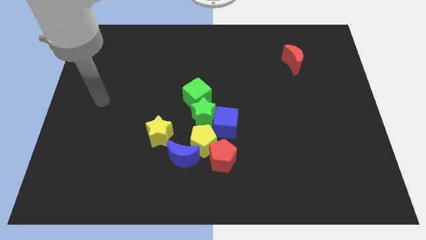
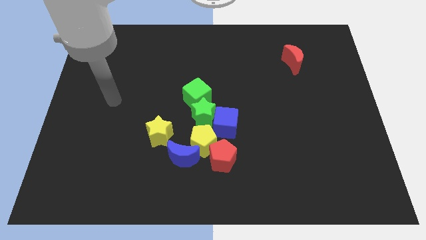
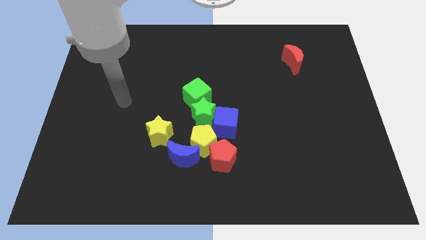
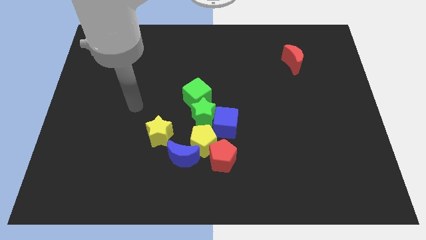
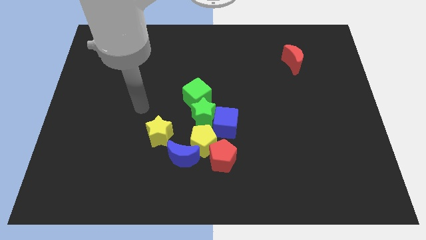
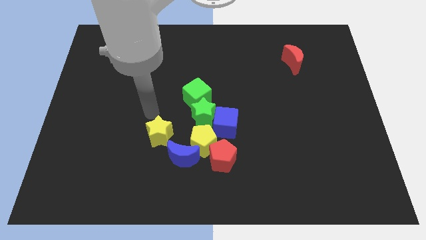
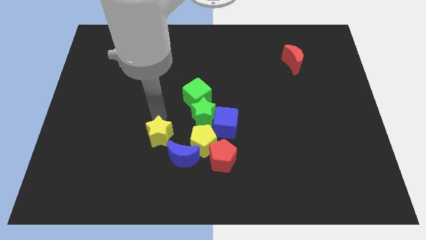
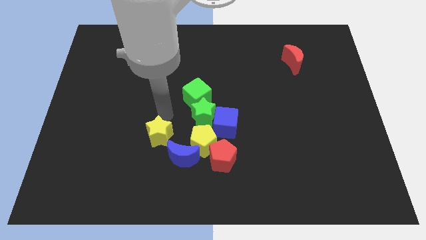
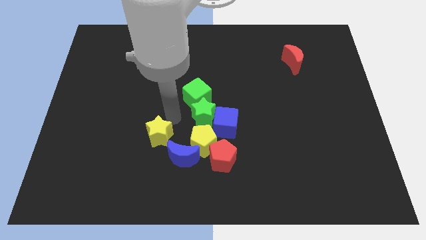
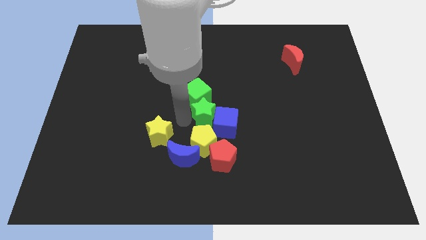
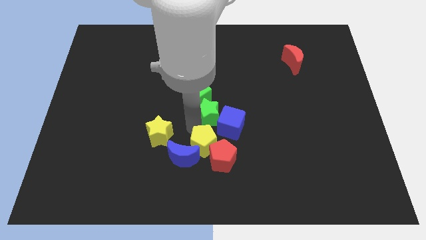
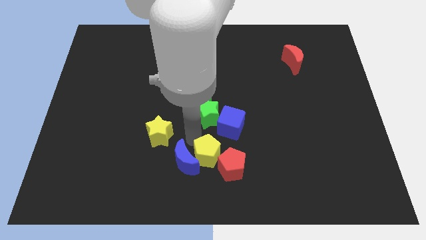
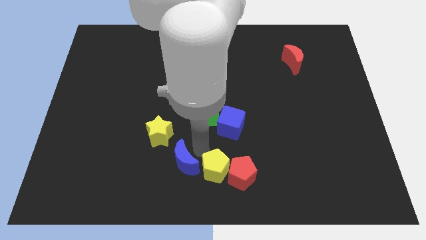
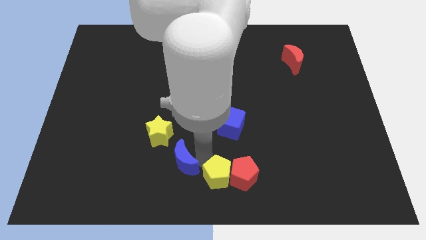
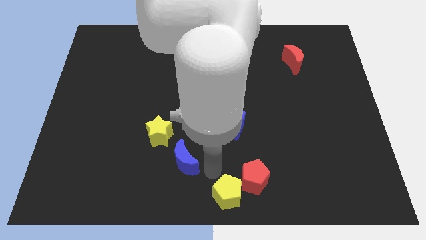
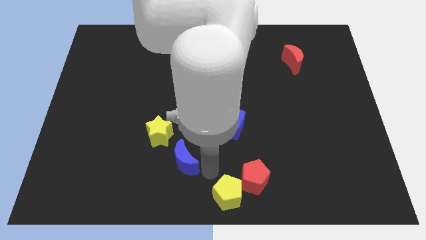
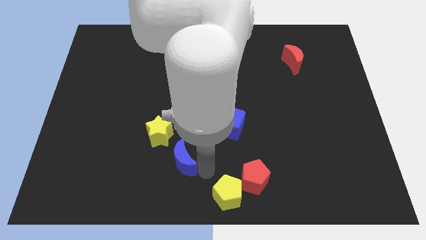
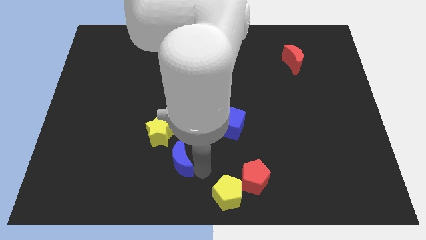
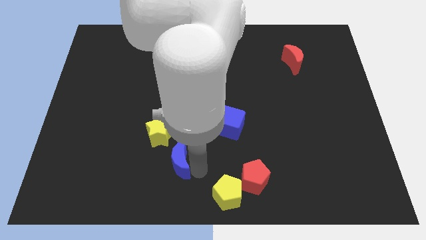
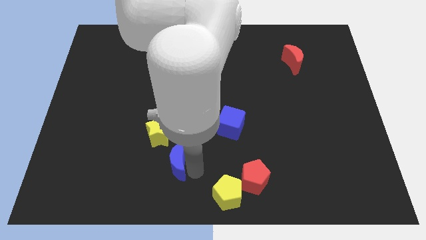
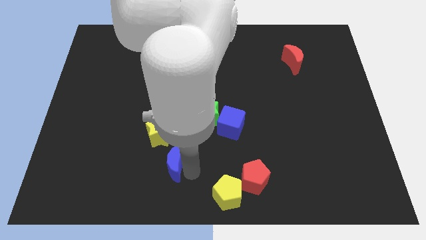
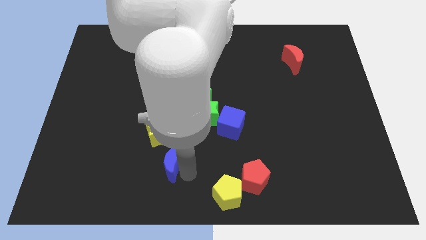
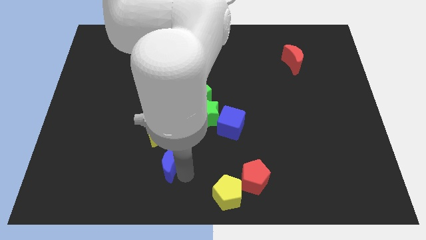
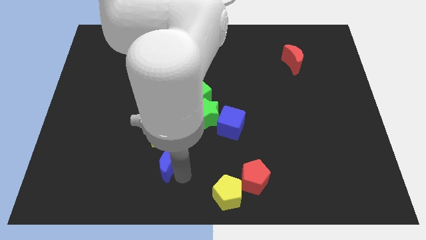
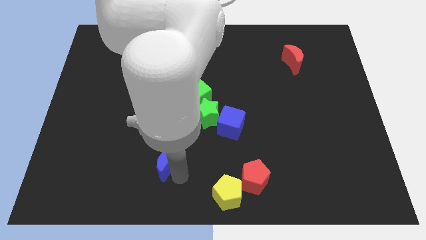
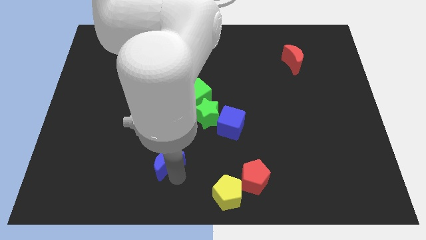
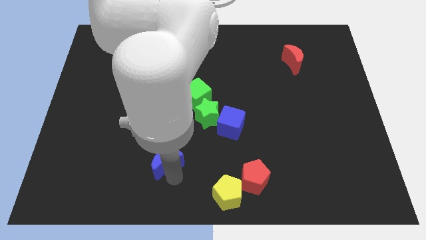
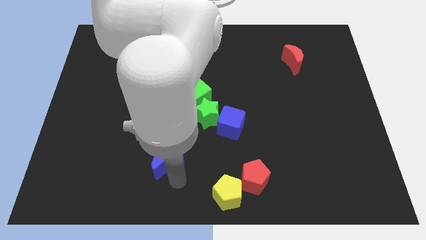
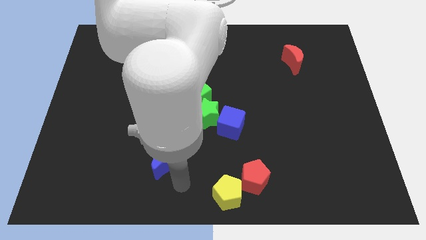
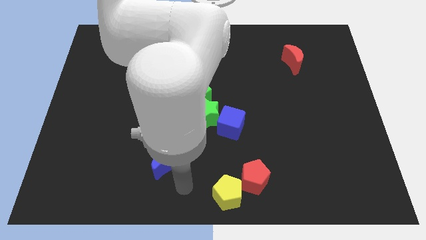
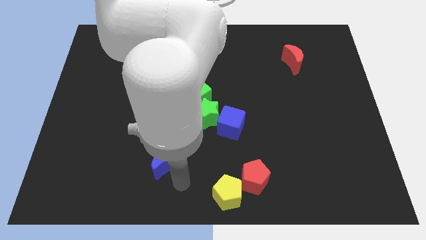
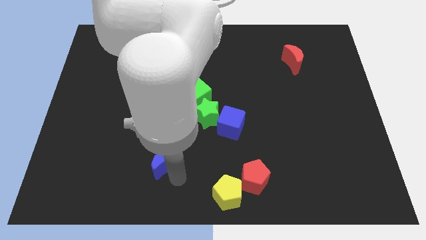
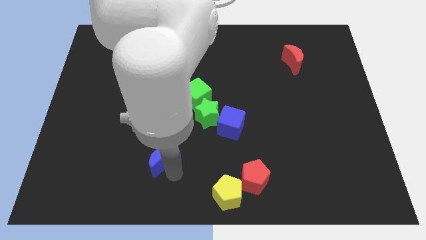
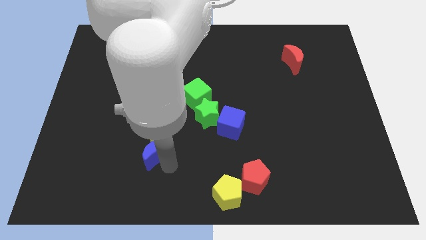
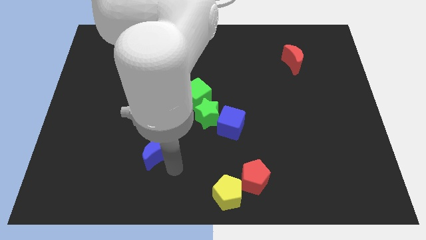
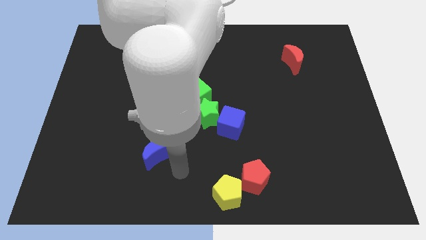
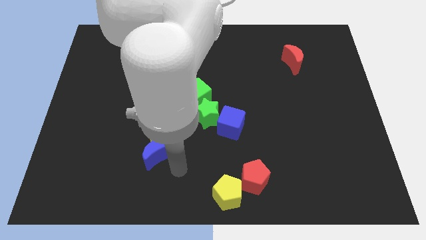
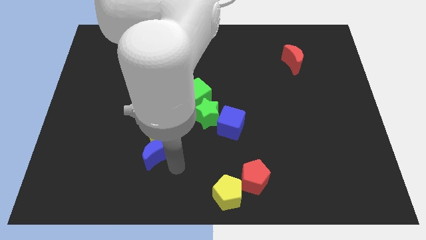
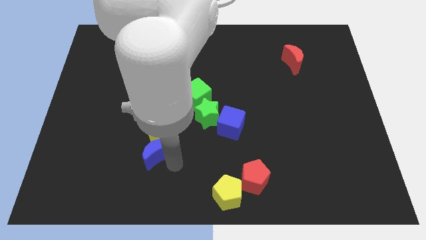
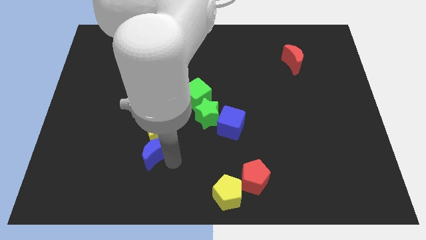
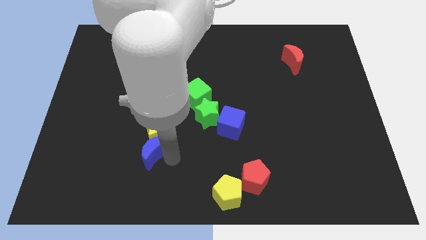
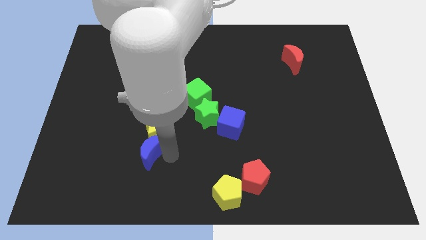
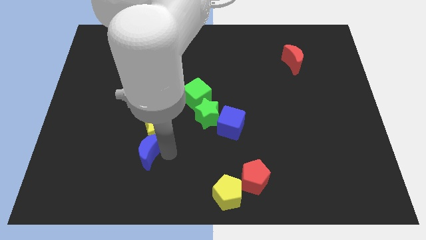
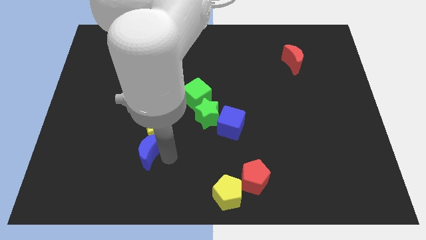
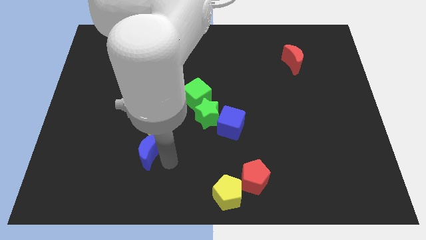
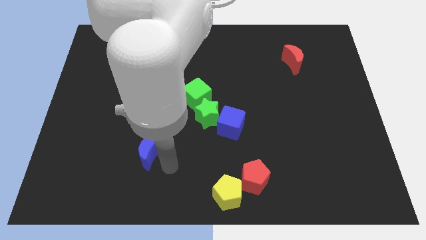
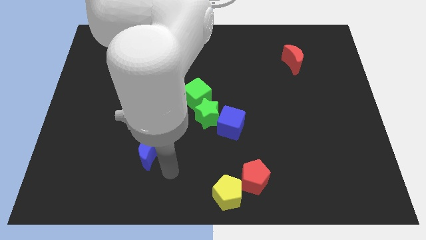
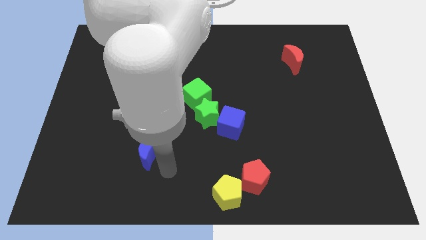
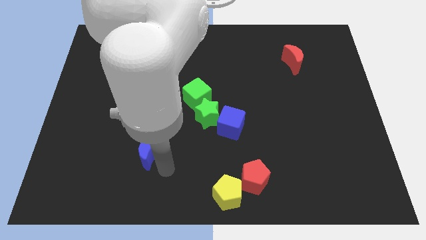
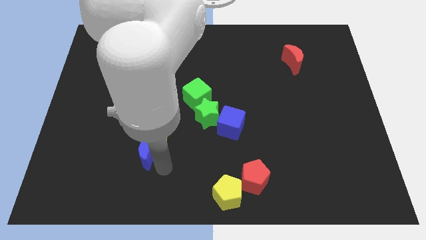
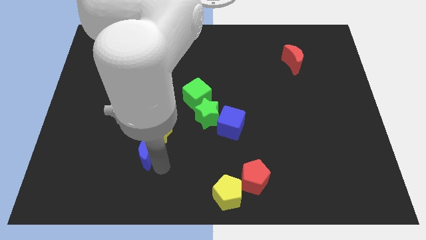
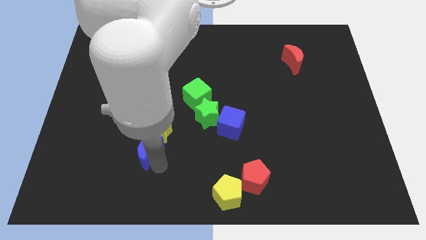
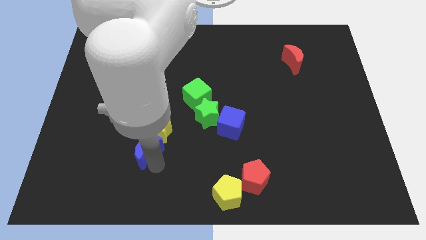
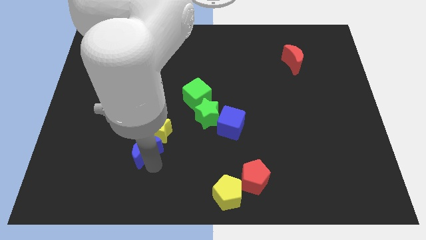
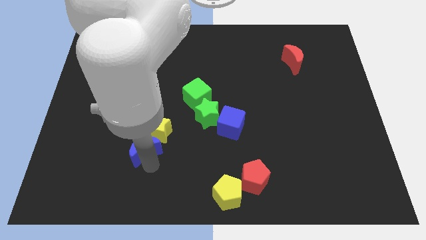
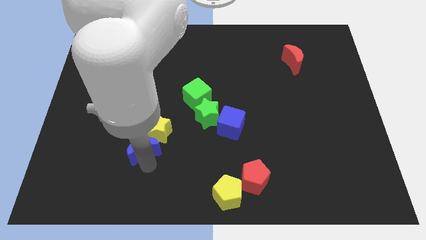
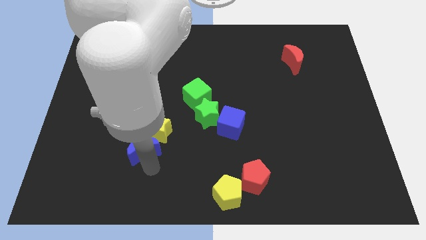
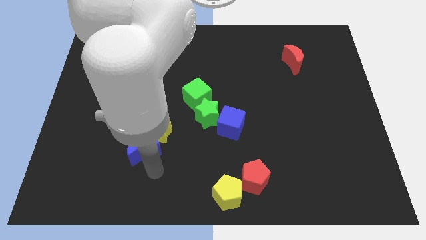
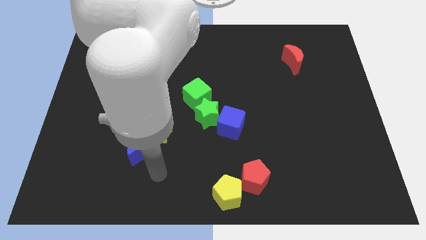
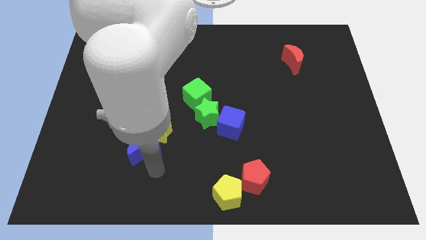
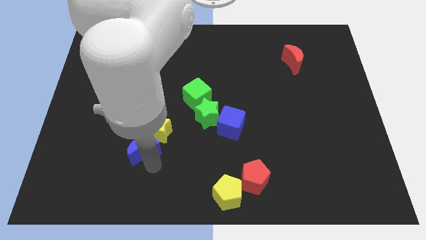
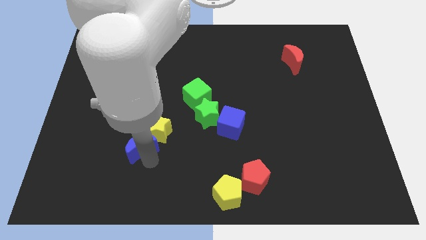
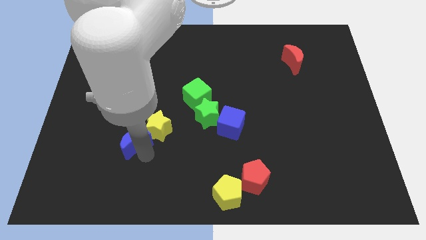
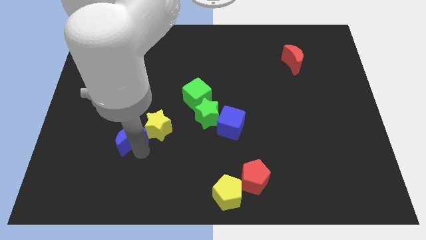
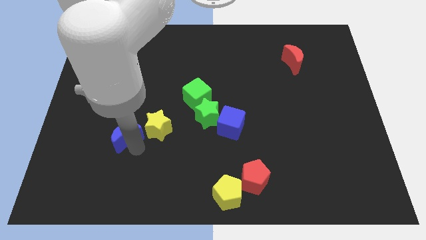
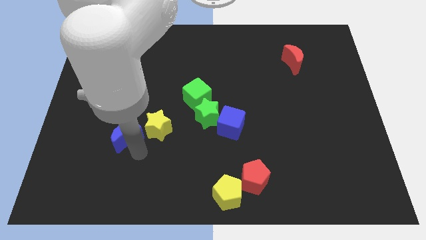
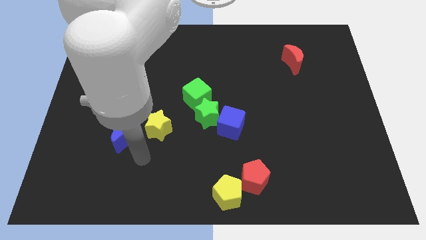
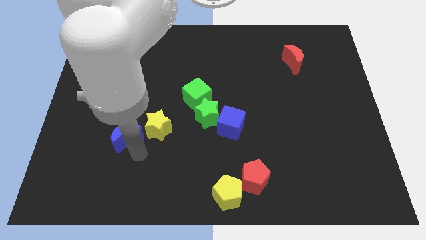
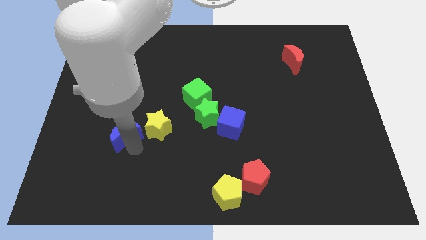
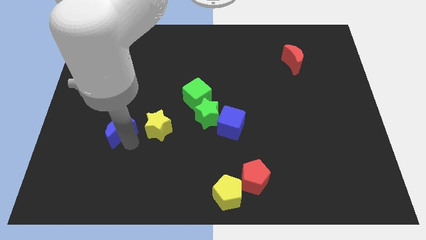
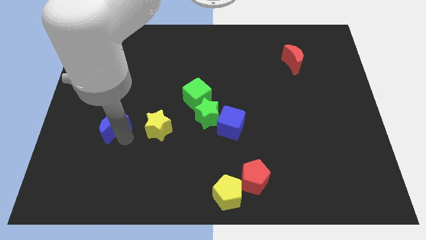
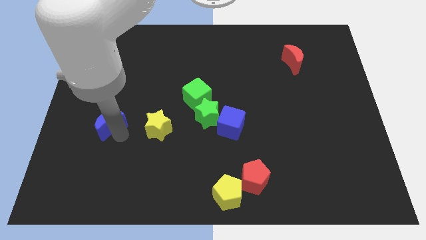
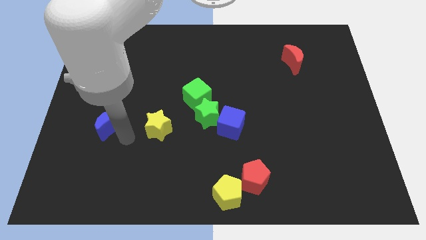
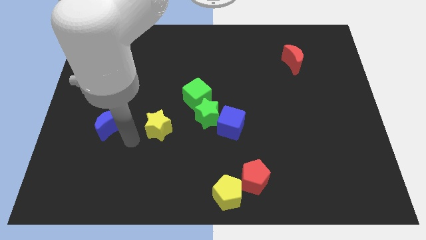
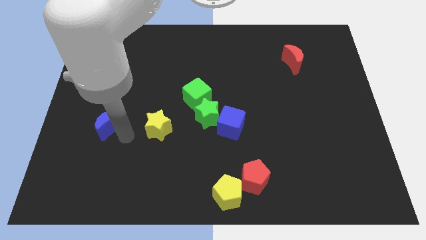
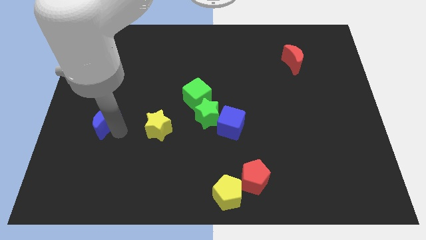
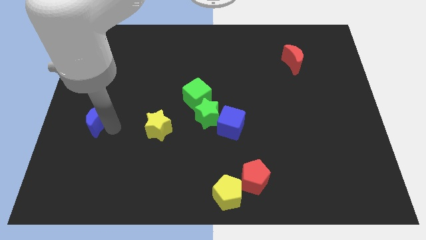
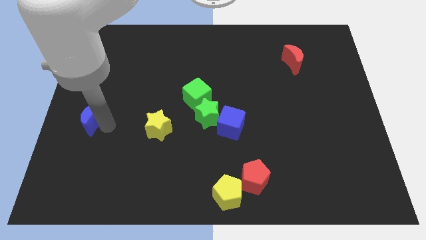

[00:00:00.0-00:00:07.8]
push the blue moon to the left side of the board
